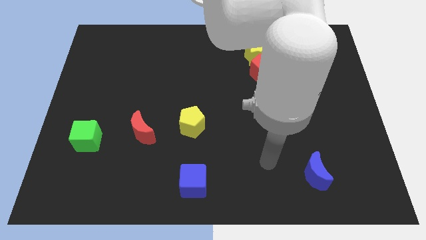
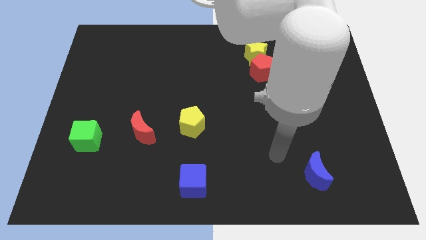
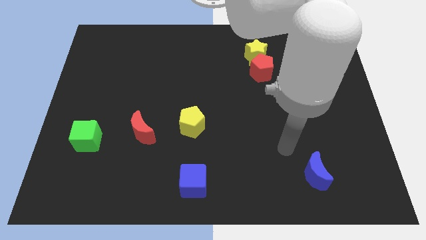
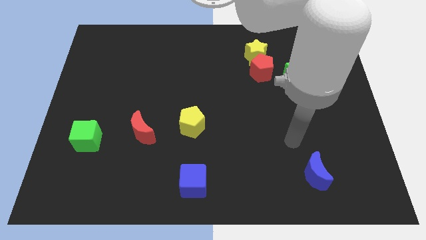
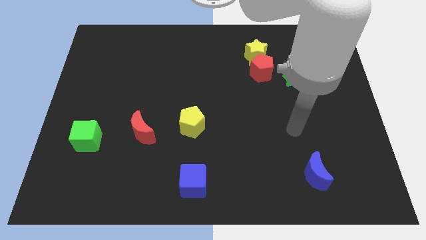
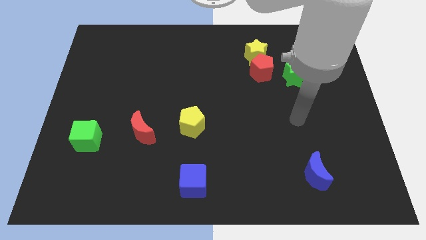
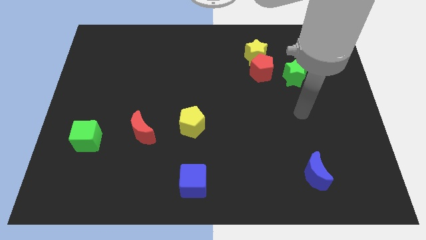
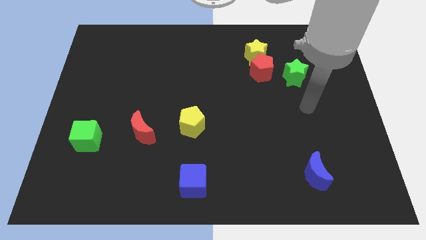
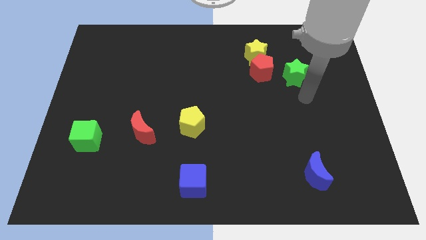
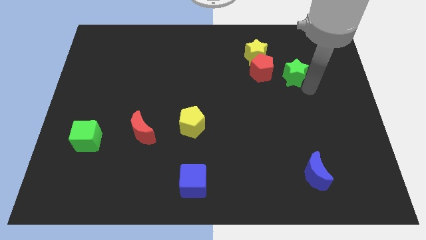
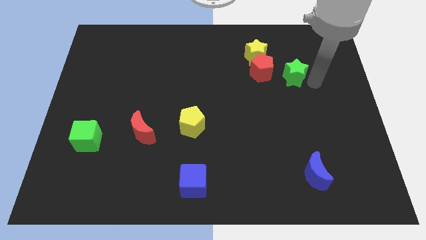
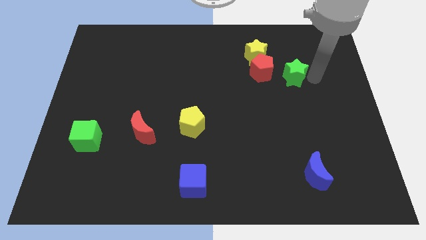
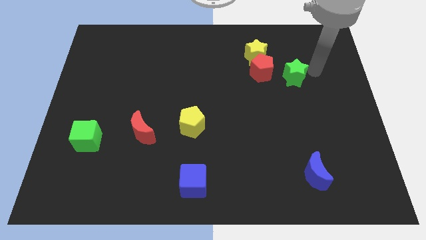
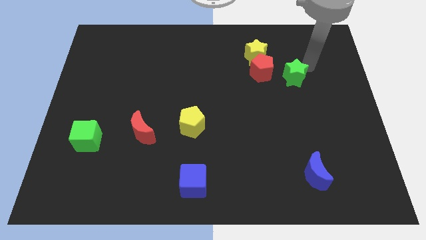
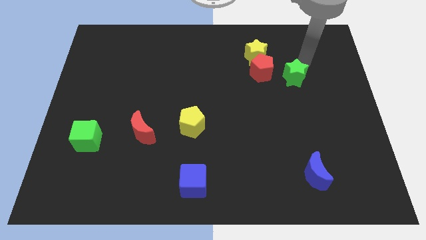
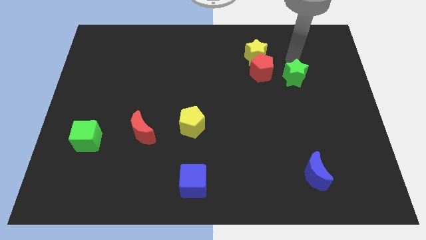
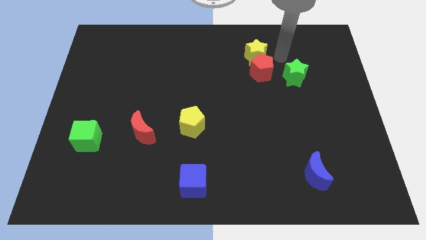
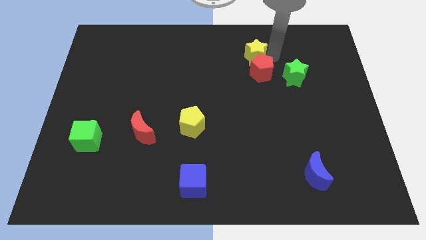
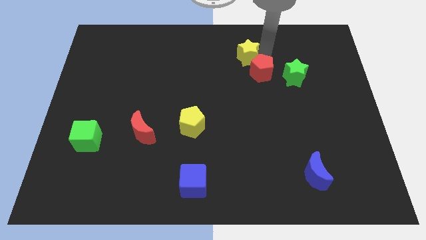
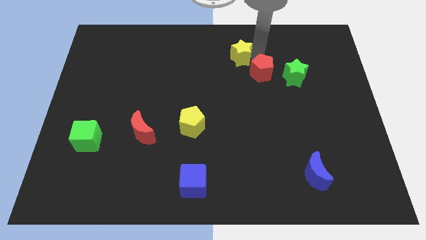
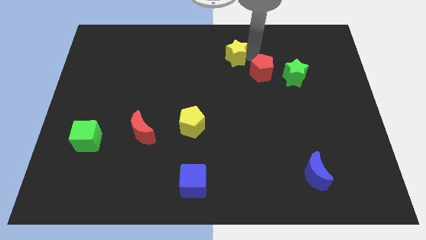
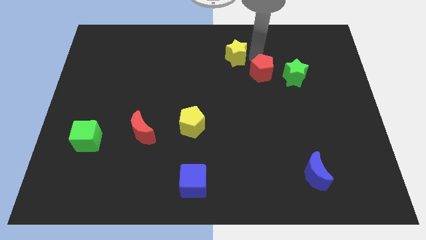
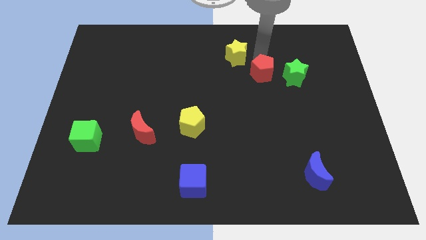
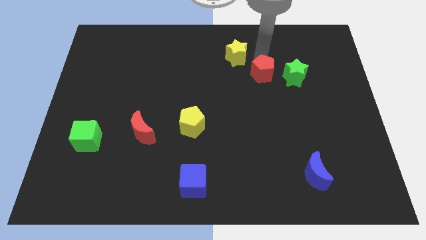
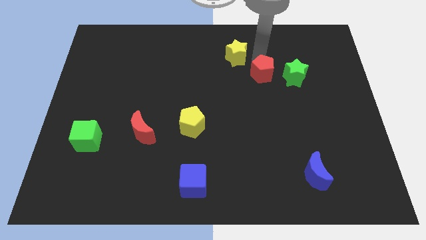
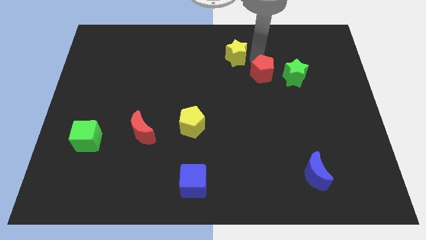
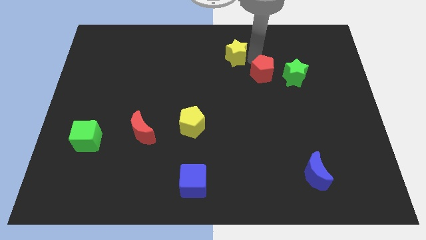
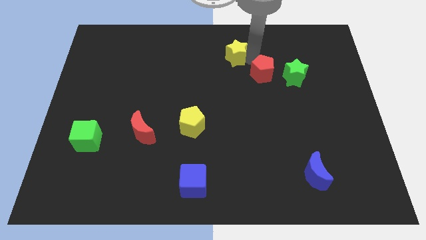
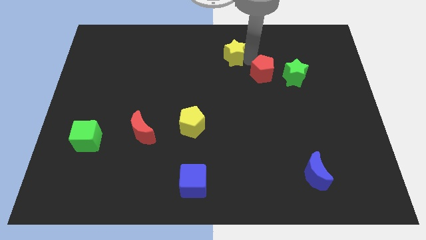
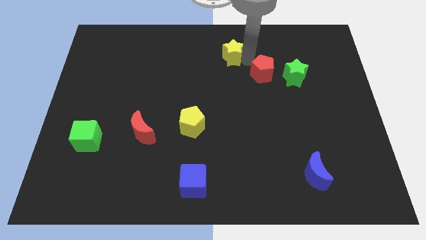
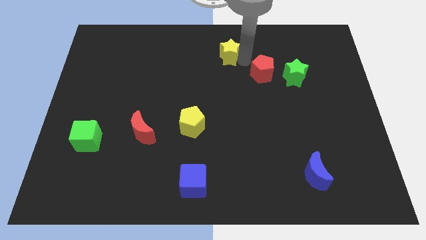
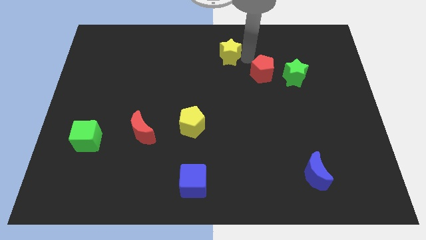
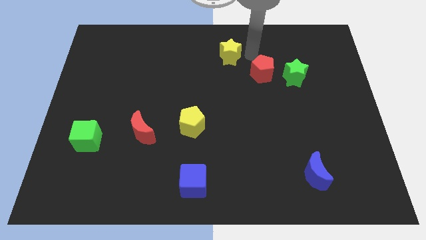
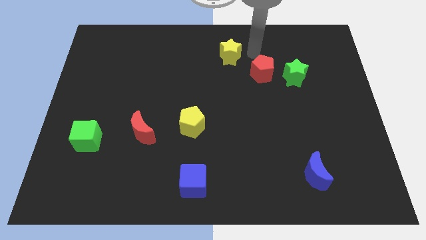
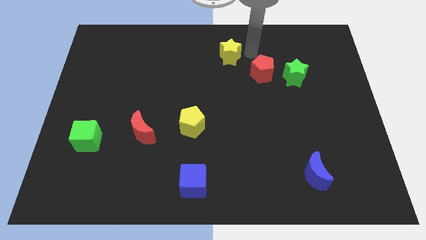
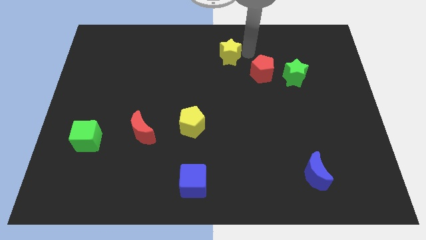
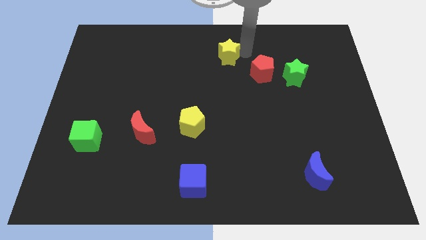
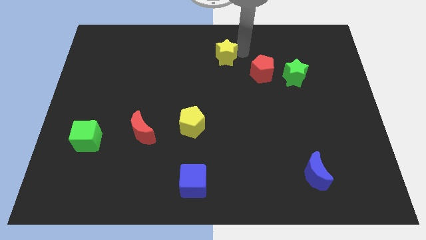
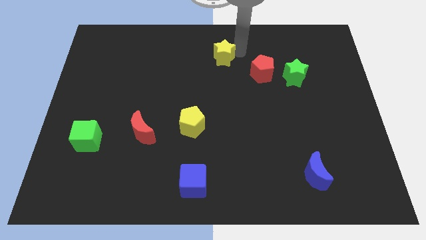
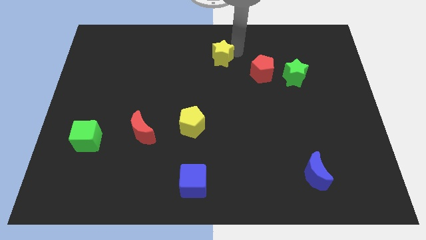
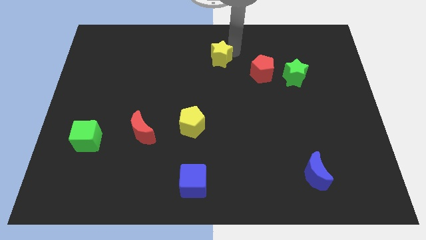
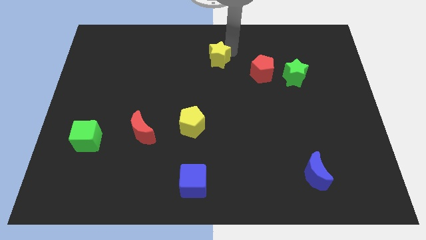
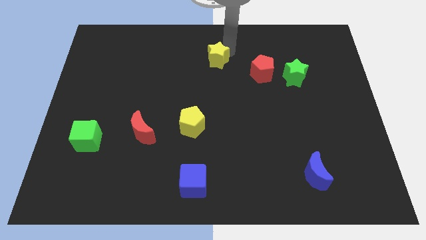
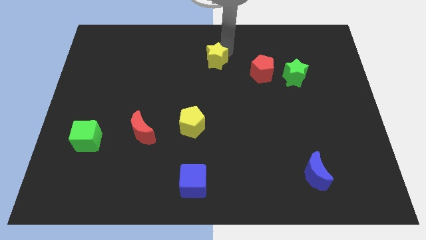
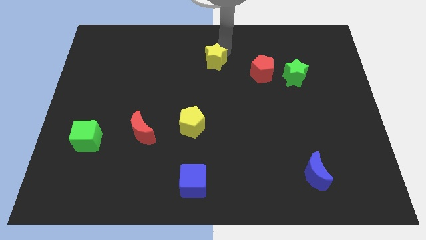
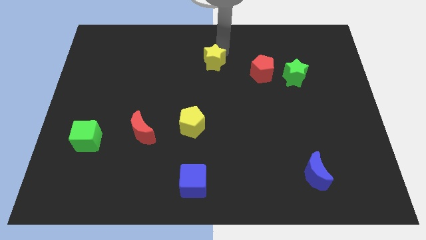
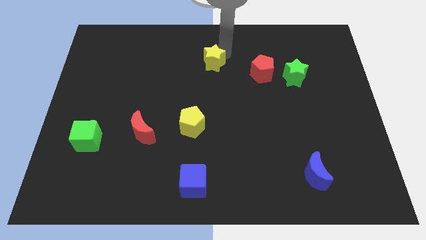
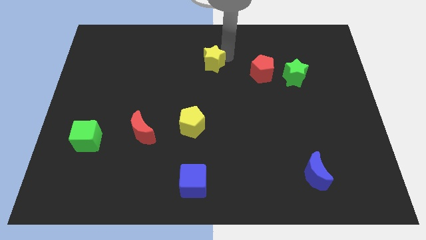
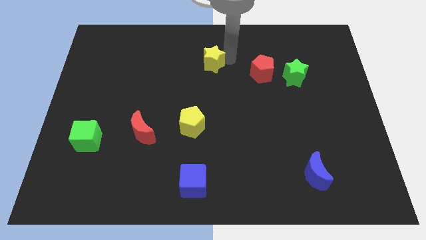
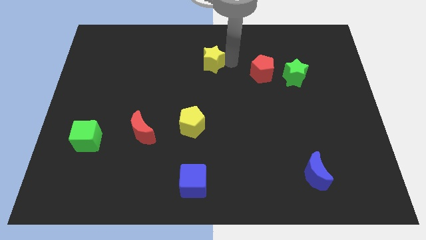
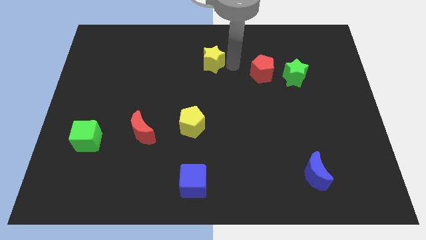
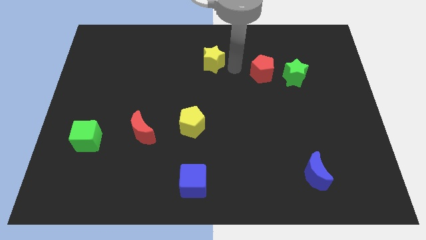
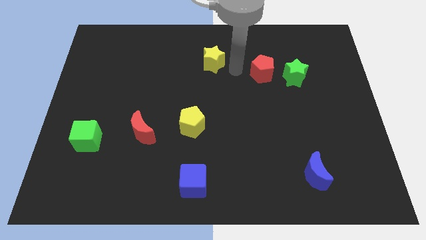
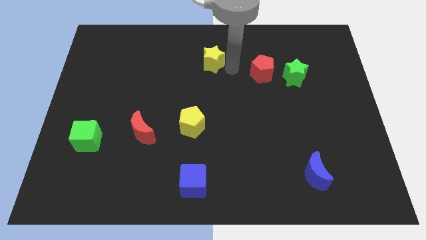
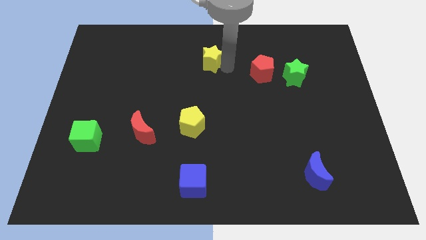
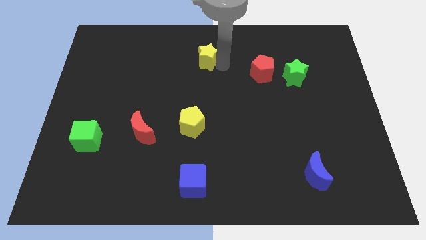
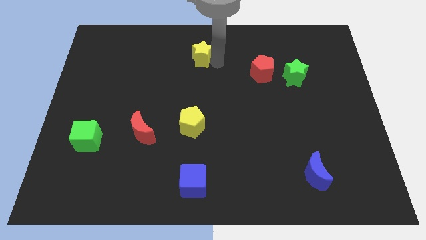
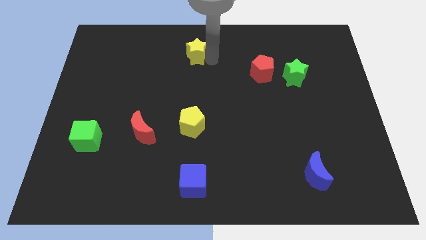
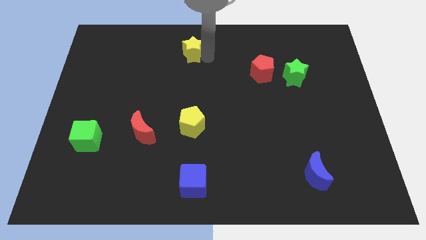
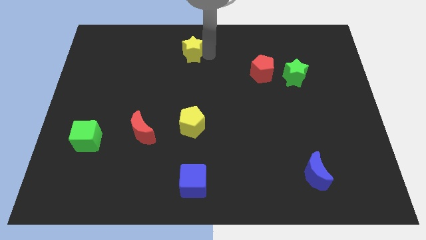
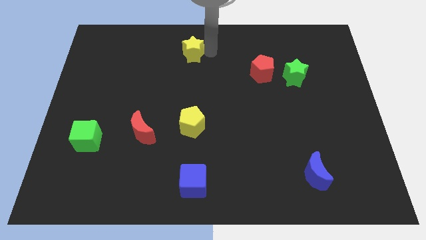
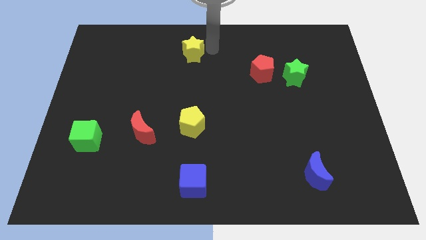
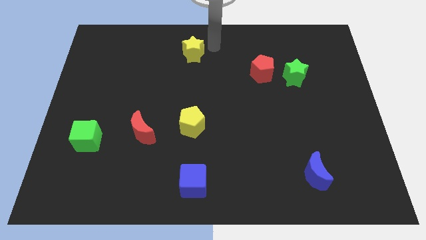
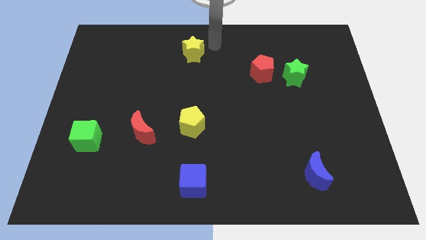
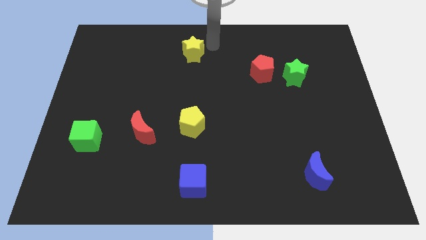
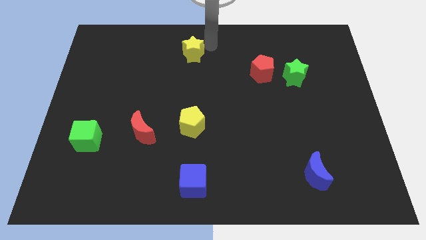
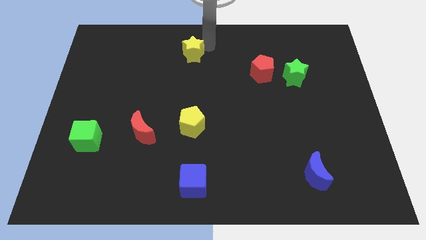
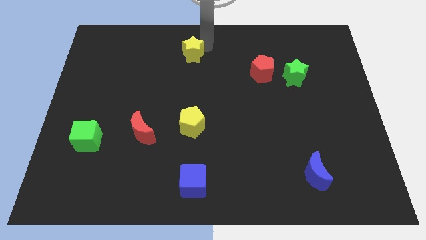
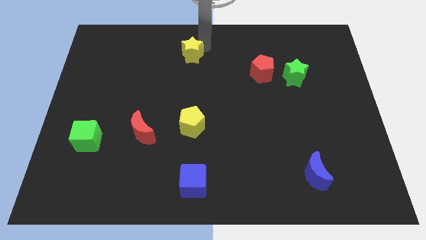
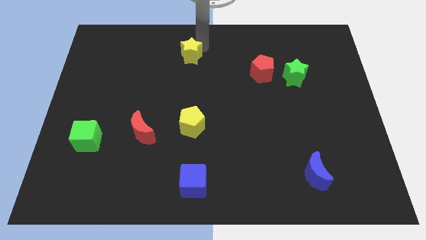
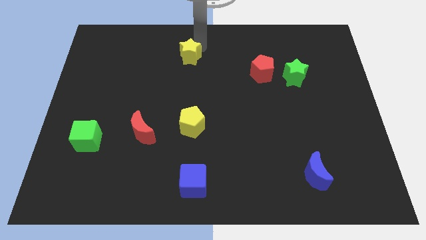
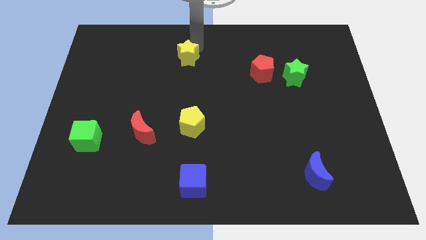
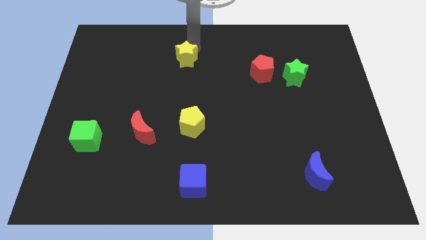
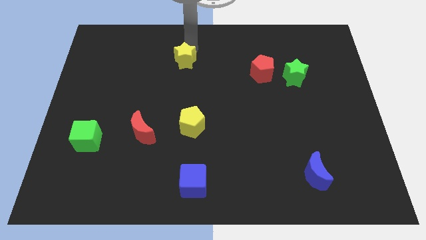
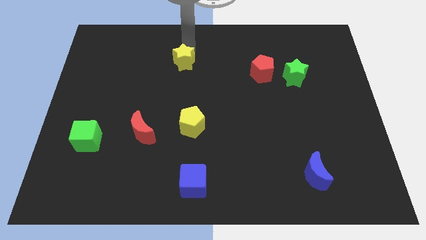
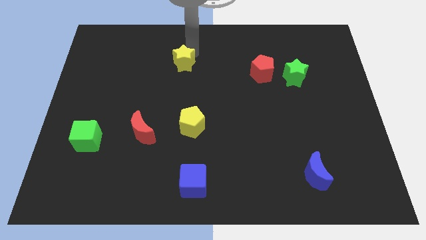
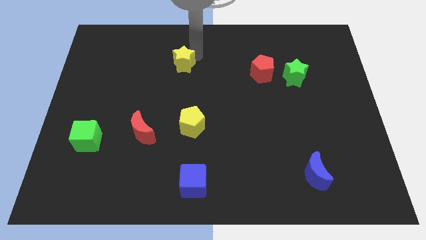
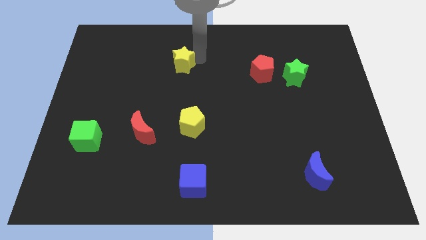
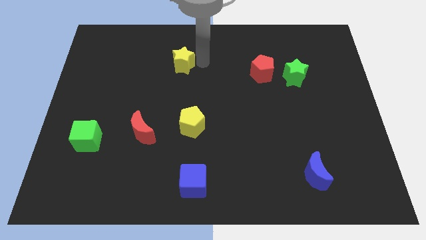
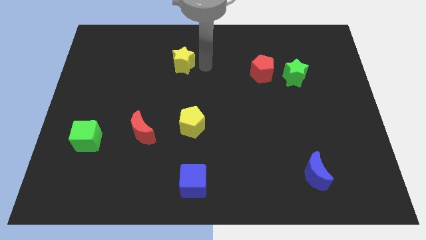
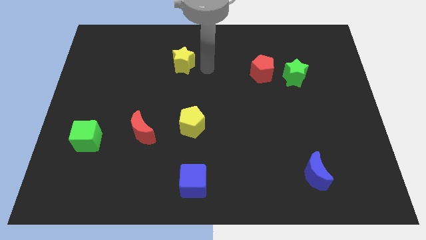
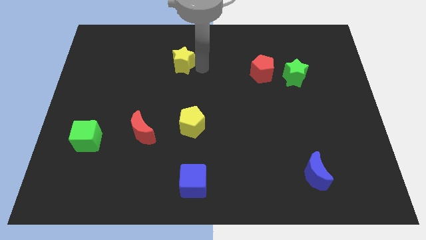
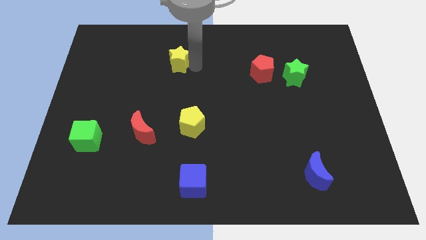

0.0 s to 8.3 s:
move the yellow star to the left
